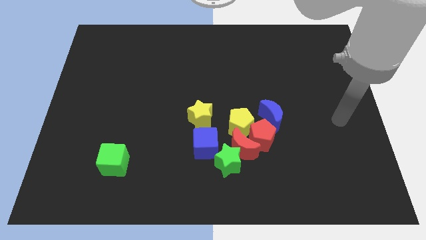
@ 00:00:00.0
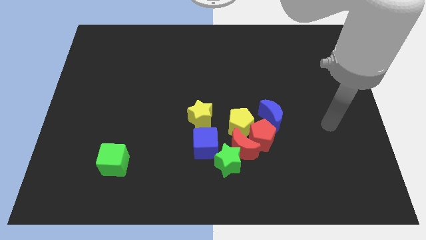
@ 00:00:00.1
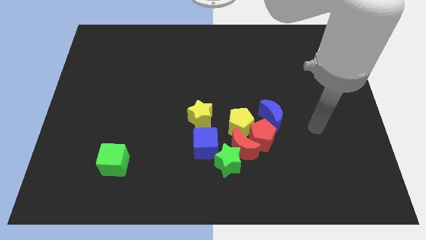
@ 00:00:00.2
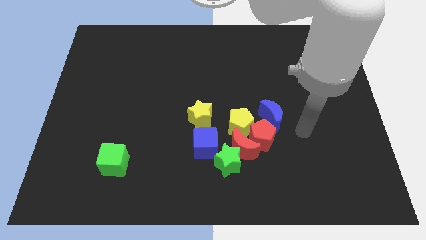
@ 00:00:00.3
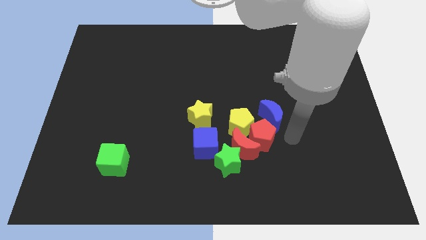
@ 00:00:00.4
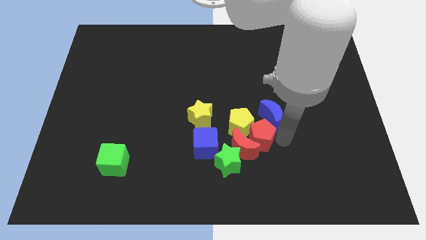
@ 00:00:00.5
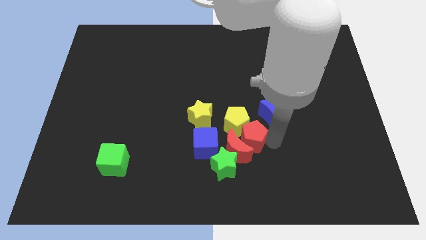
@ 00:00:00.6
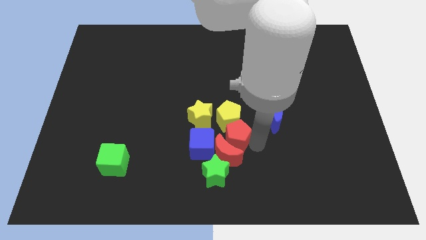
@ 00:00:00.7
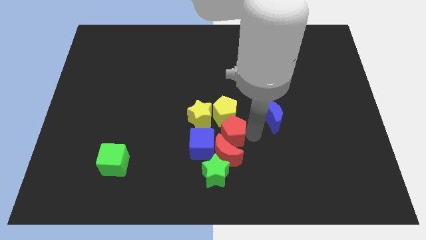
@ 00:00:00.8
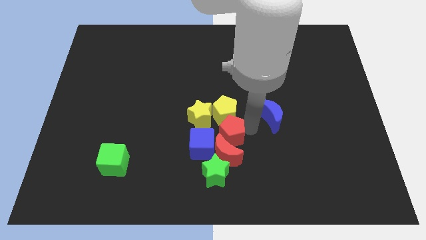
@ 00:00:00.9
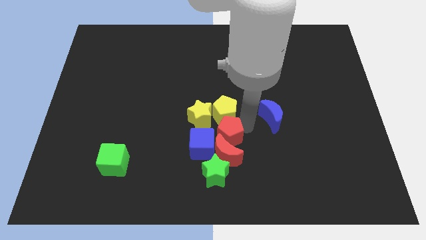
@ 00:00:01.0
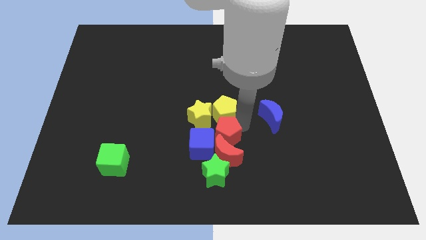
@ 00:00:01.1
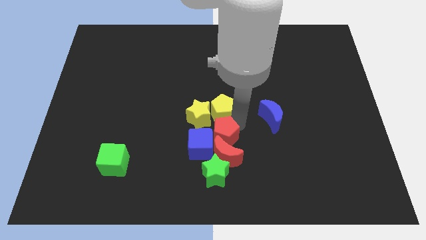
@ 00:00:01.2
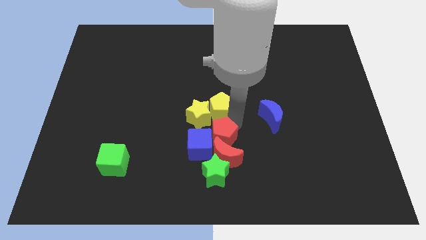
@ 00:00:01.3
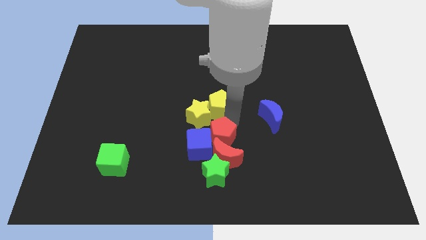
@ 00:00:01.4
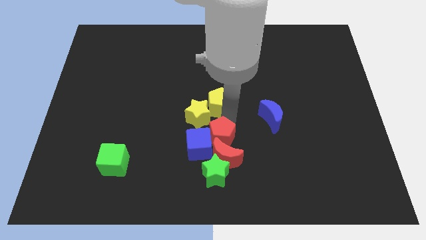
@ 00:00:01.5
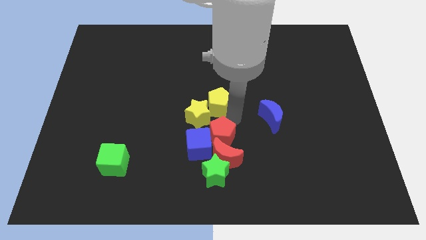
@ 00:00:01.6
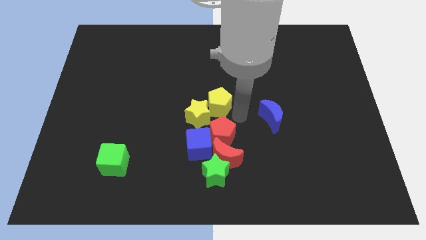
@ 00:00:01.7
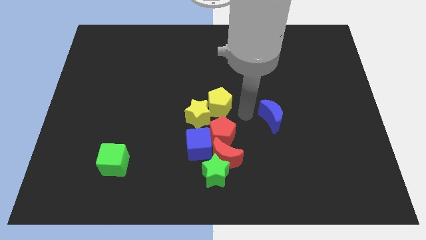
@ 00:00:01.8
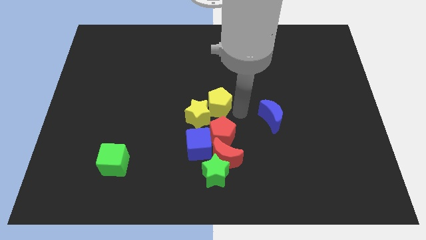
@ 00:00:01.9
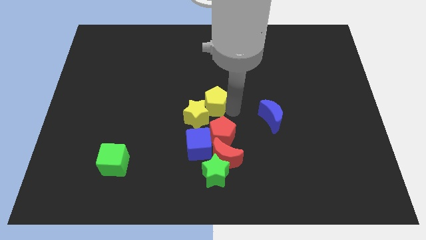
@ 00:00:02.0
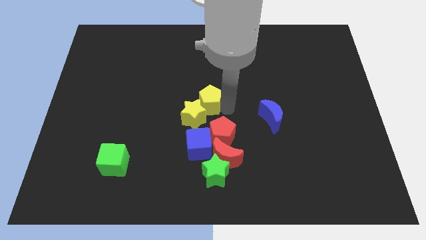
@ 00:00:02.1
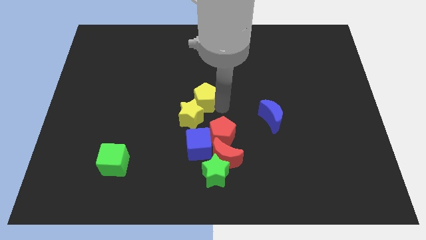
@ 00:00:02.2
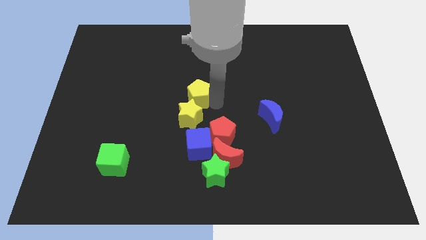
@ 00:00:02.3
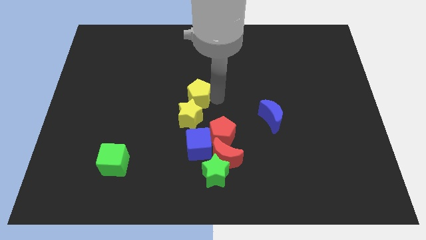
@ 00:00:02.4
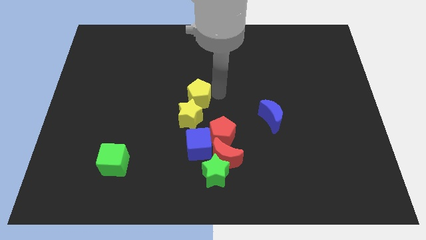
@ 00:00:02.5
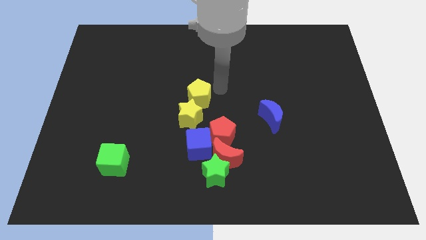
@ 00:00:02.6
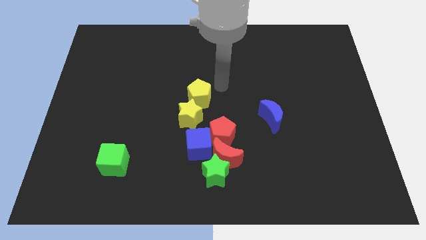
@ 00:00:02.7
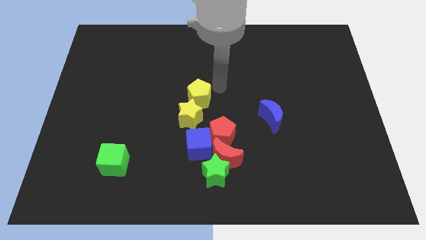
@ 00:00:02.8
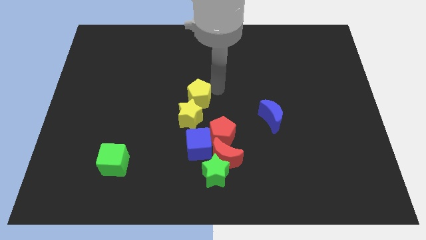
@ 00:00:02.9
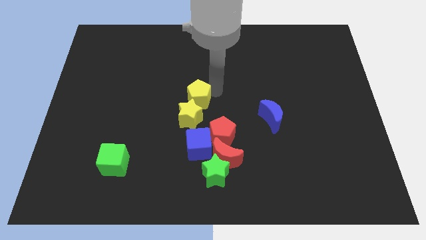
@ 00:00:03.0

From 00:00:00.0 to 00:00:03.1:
slightly move the yellow pentagon left

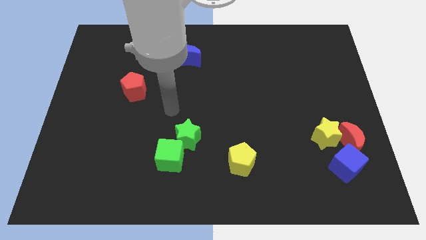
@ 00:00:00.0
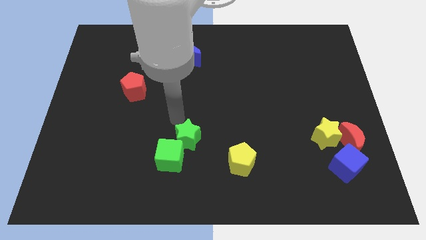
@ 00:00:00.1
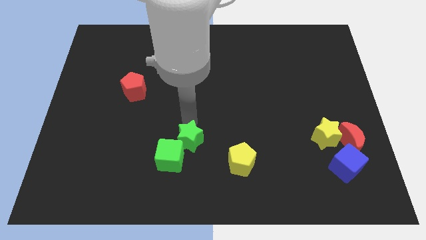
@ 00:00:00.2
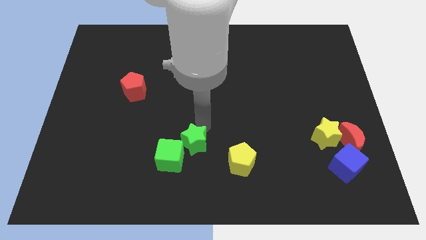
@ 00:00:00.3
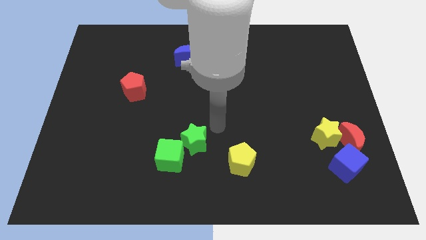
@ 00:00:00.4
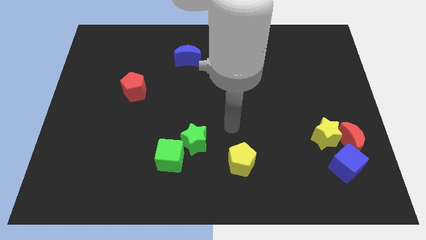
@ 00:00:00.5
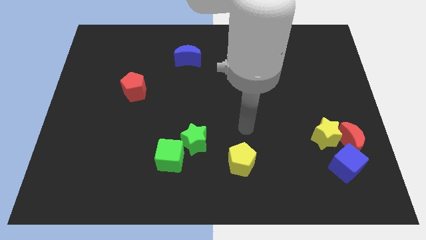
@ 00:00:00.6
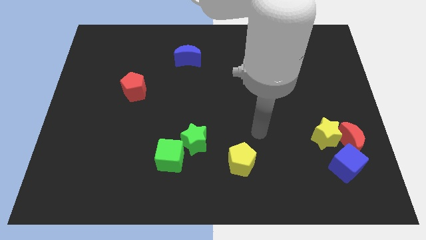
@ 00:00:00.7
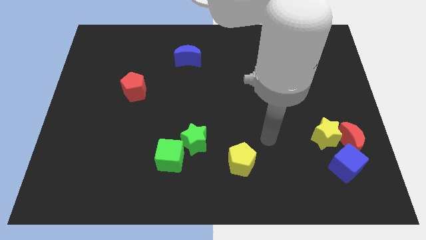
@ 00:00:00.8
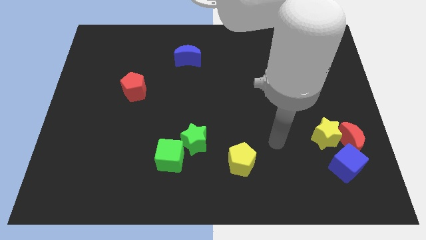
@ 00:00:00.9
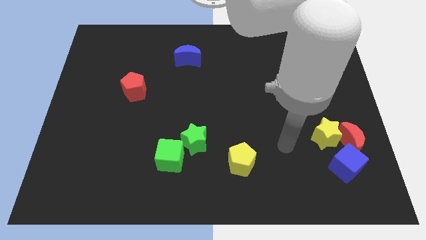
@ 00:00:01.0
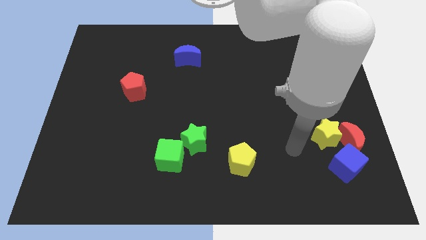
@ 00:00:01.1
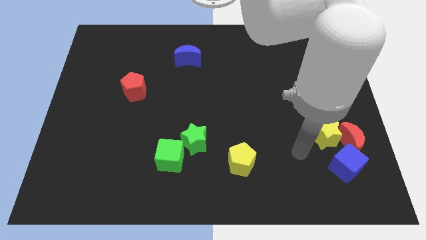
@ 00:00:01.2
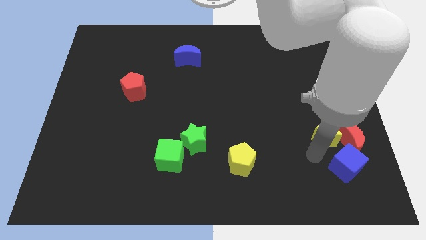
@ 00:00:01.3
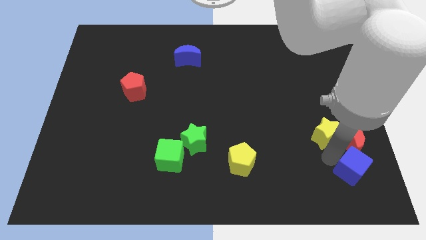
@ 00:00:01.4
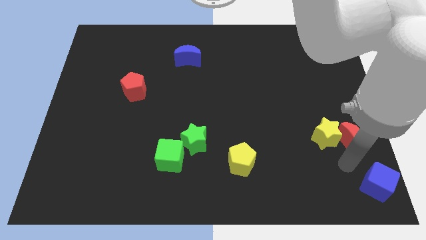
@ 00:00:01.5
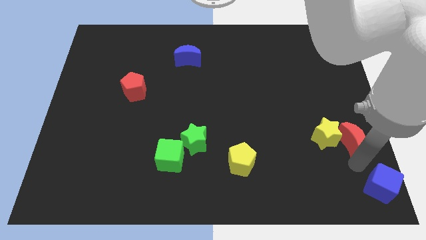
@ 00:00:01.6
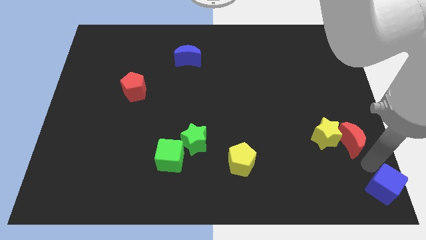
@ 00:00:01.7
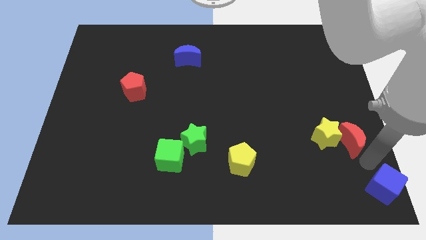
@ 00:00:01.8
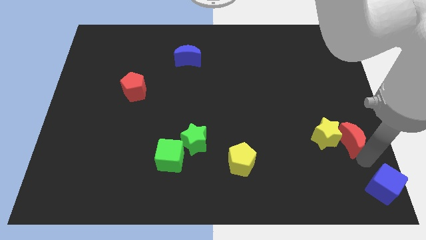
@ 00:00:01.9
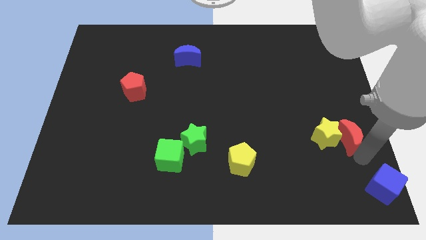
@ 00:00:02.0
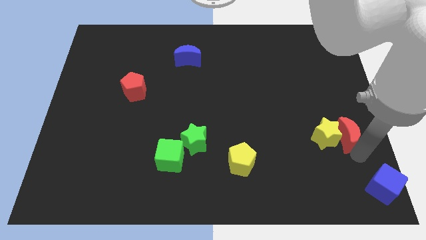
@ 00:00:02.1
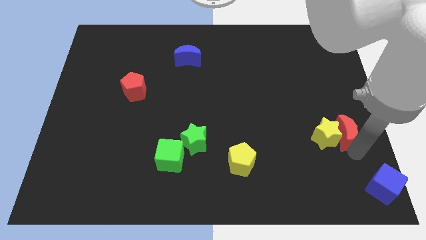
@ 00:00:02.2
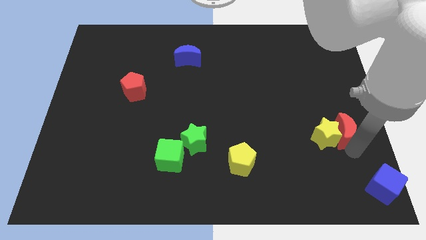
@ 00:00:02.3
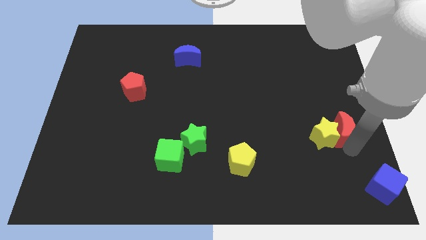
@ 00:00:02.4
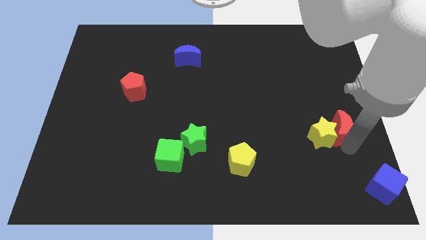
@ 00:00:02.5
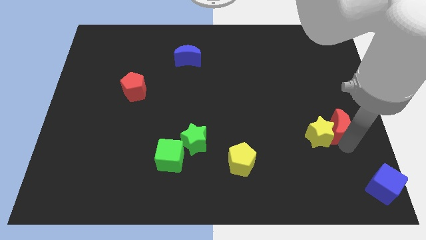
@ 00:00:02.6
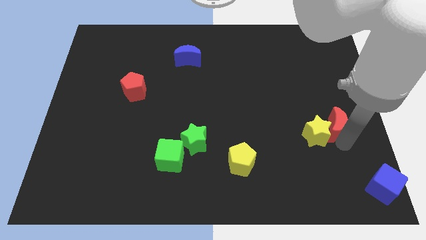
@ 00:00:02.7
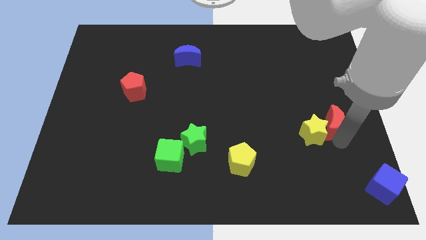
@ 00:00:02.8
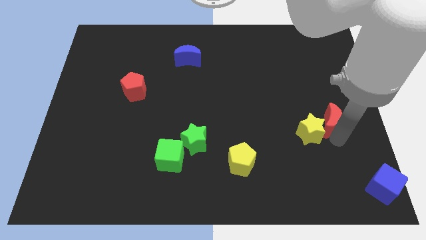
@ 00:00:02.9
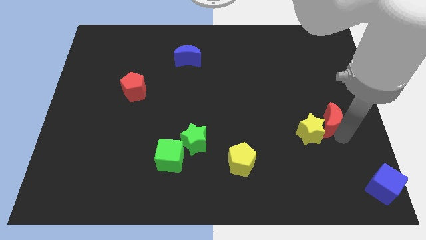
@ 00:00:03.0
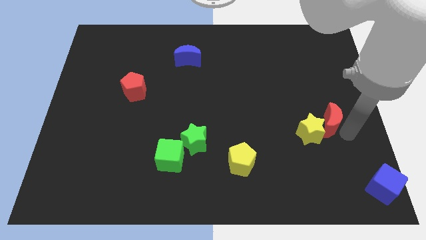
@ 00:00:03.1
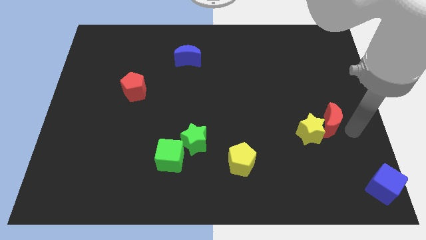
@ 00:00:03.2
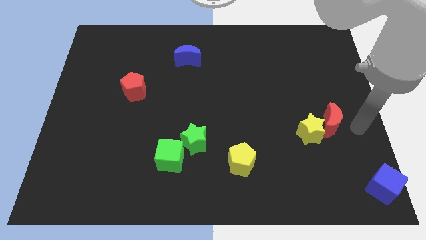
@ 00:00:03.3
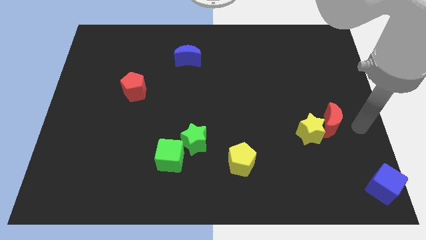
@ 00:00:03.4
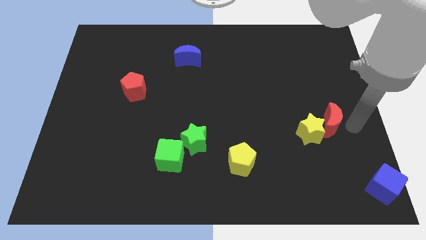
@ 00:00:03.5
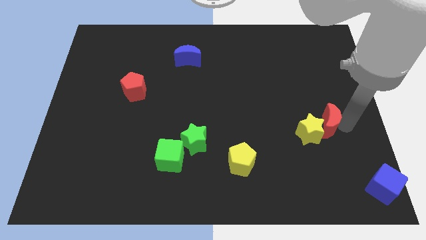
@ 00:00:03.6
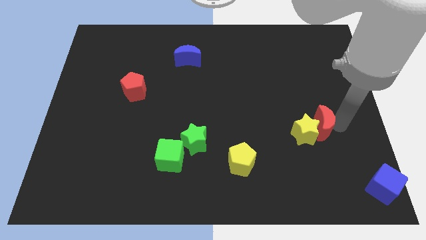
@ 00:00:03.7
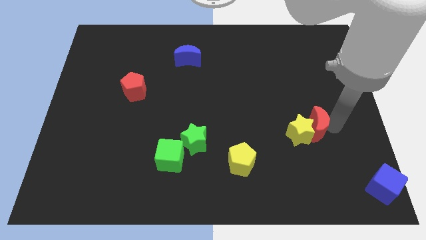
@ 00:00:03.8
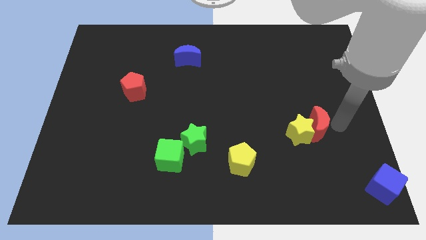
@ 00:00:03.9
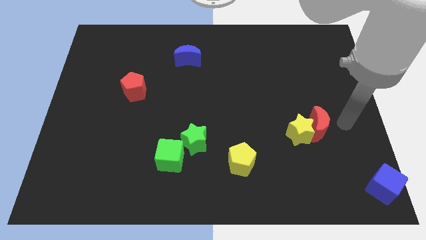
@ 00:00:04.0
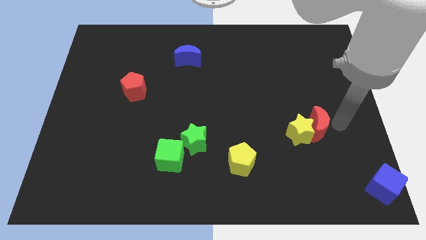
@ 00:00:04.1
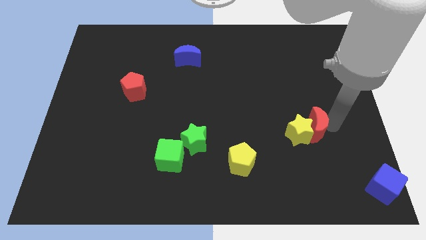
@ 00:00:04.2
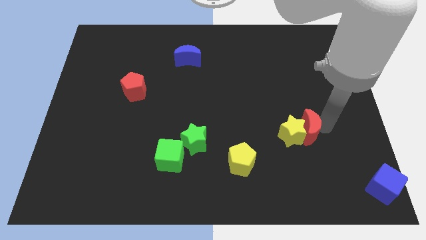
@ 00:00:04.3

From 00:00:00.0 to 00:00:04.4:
slightly slide the red moon left
